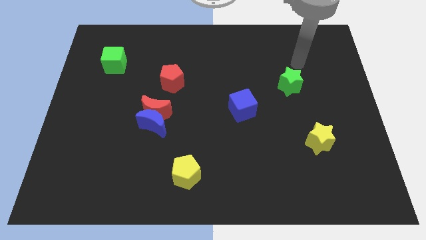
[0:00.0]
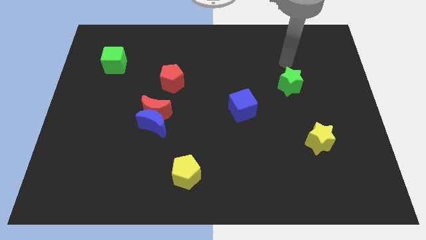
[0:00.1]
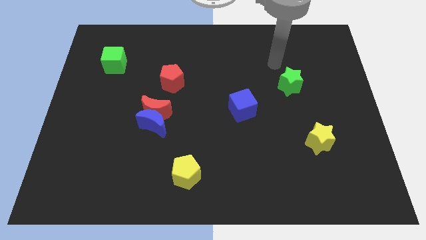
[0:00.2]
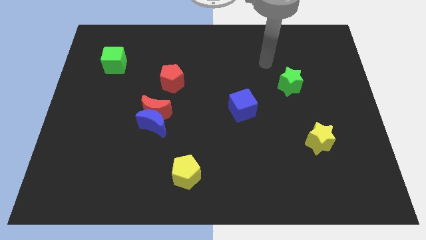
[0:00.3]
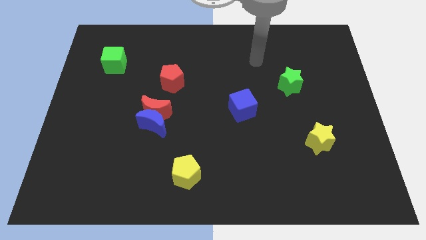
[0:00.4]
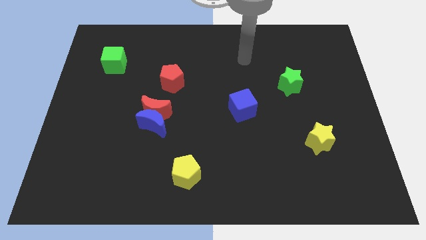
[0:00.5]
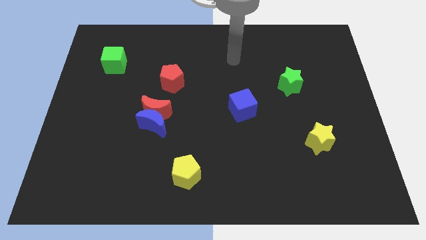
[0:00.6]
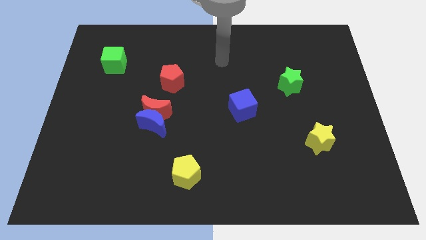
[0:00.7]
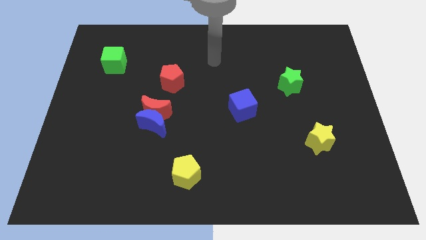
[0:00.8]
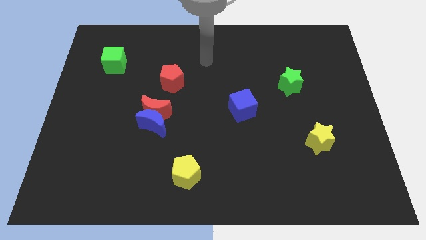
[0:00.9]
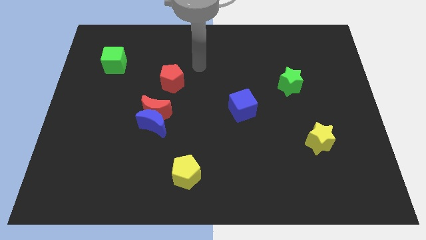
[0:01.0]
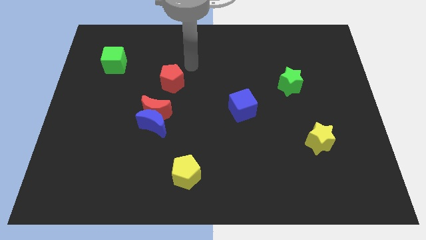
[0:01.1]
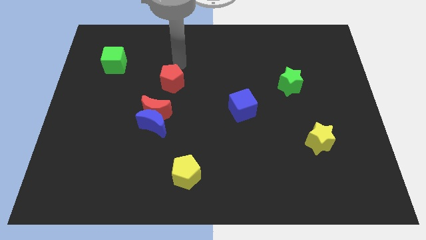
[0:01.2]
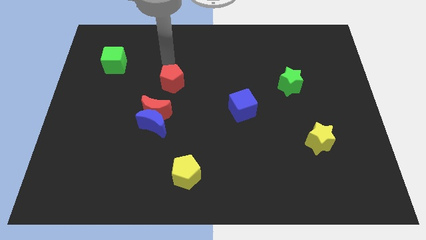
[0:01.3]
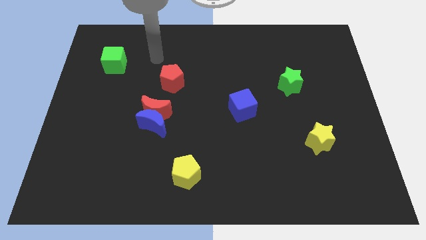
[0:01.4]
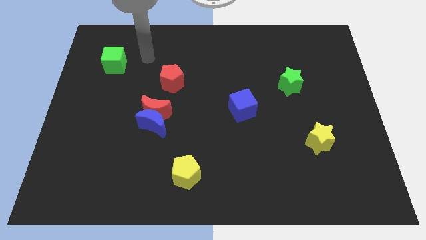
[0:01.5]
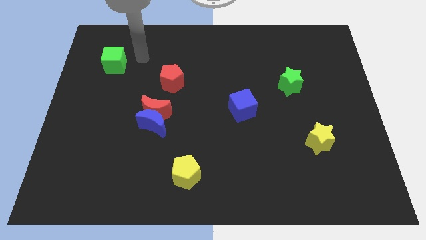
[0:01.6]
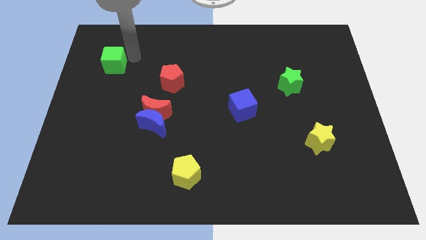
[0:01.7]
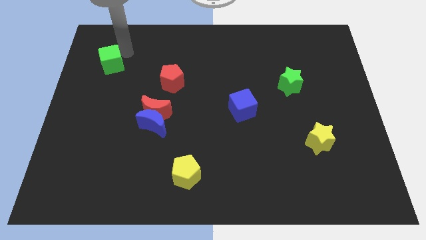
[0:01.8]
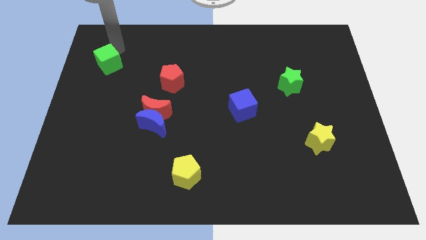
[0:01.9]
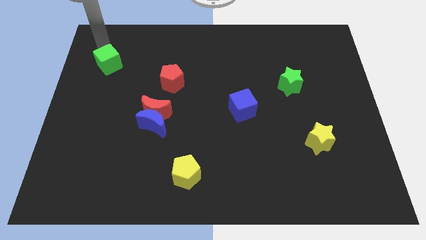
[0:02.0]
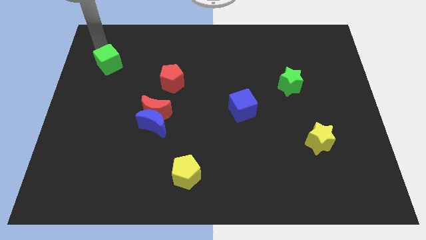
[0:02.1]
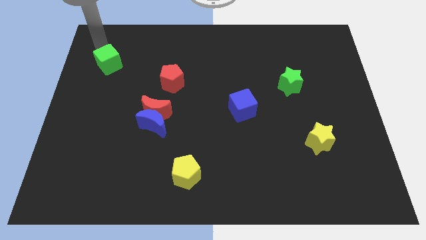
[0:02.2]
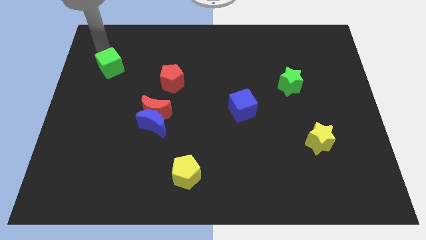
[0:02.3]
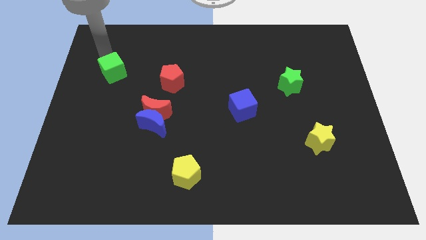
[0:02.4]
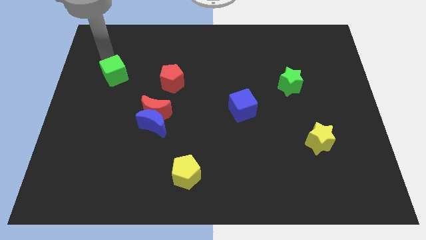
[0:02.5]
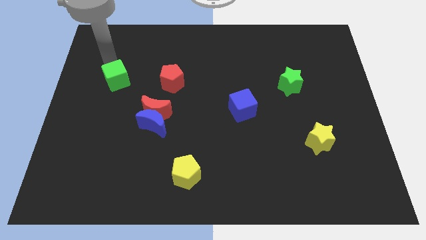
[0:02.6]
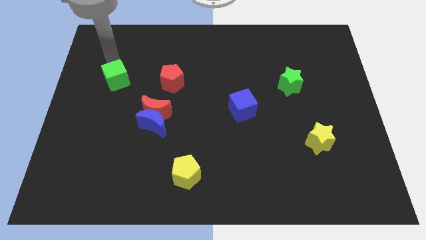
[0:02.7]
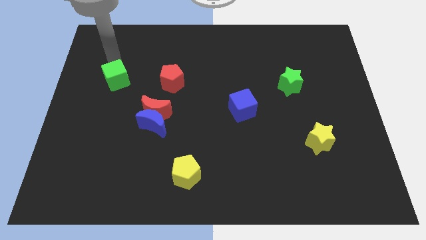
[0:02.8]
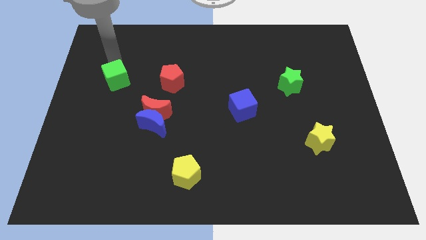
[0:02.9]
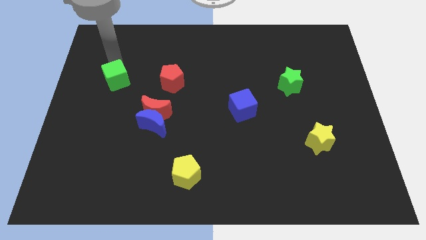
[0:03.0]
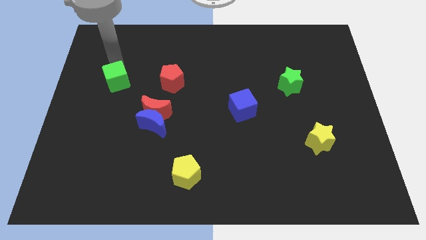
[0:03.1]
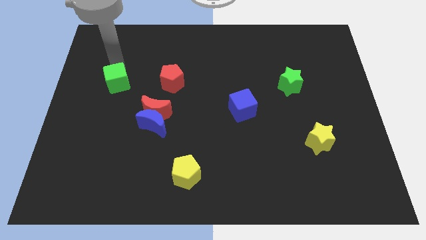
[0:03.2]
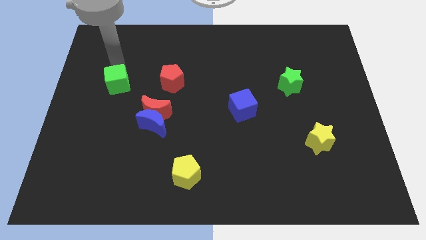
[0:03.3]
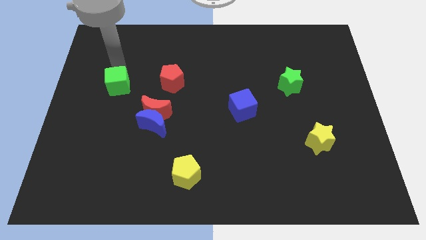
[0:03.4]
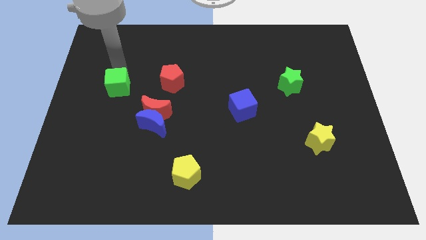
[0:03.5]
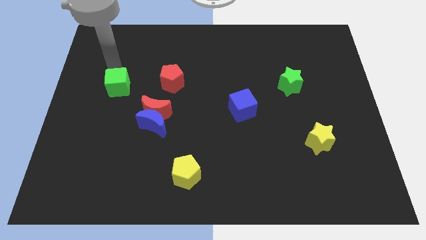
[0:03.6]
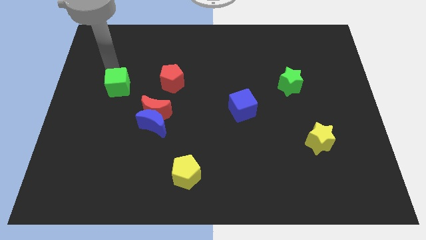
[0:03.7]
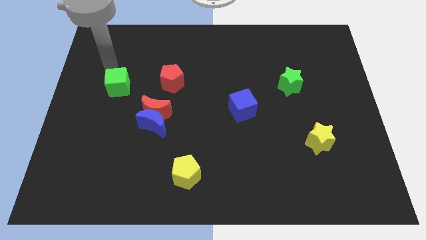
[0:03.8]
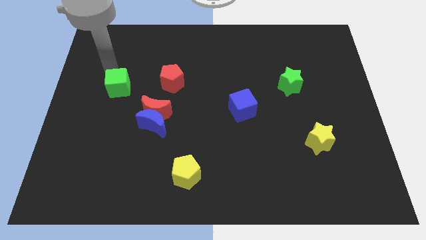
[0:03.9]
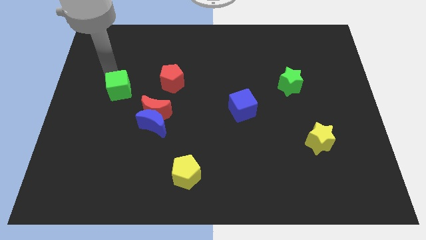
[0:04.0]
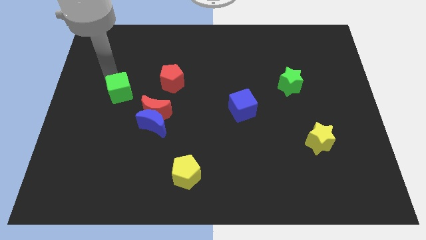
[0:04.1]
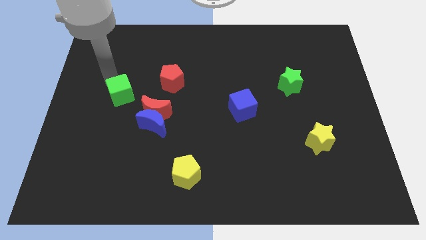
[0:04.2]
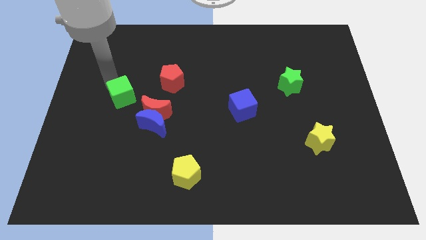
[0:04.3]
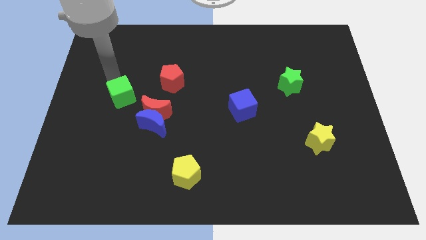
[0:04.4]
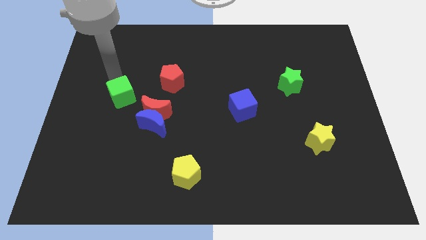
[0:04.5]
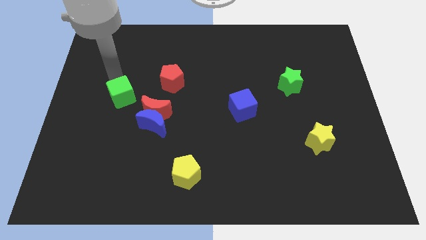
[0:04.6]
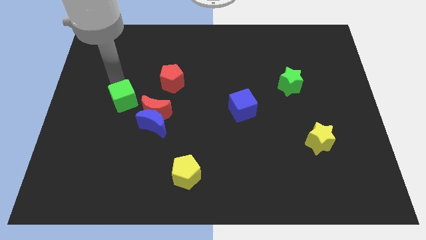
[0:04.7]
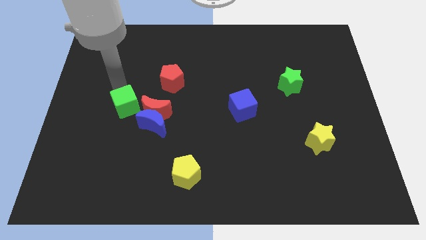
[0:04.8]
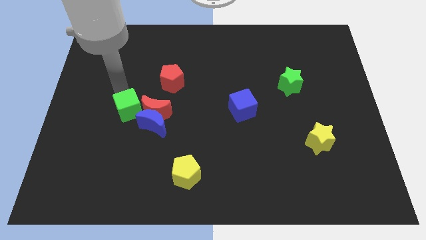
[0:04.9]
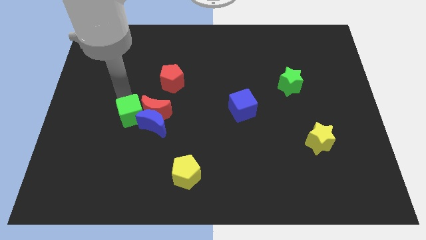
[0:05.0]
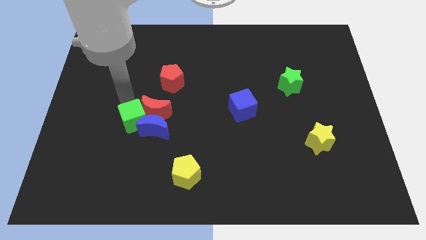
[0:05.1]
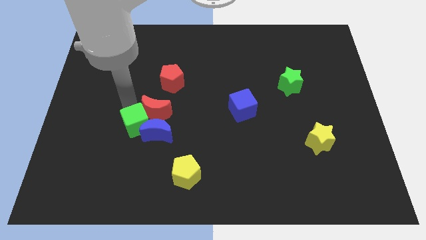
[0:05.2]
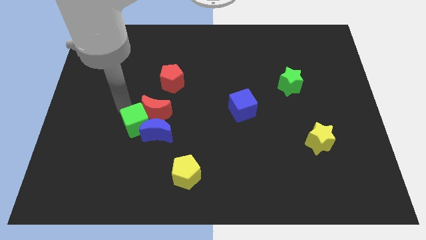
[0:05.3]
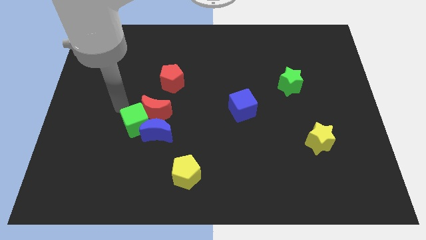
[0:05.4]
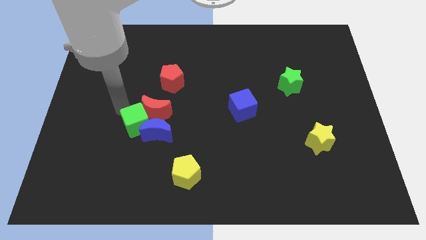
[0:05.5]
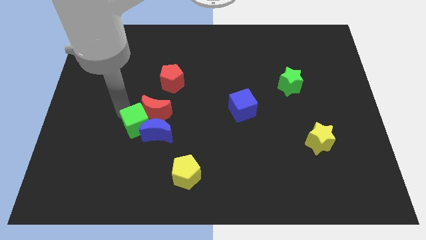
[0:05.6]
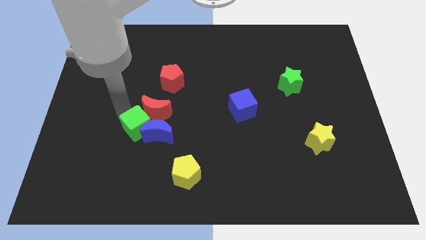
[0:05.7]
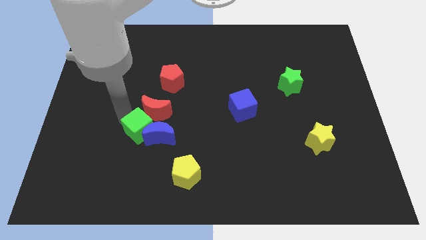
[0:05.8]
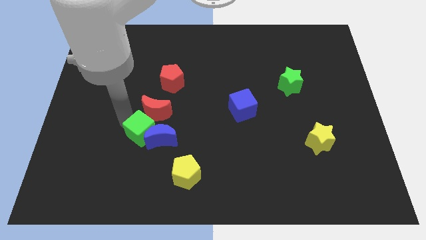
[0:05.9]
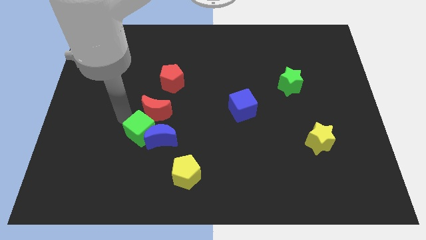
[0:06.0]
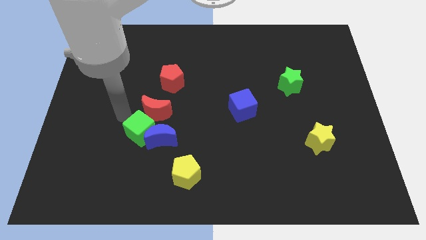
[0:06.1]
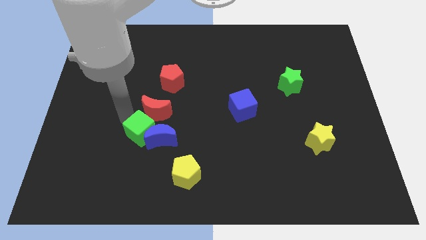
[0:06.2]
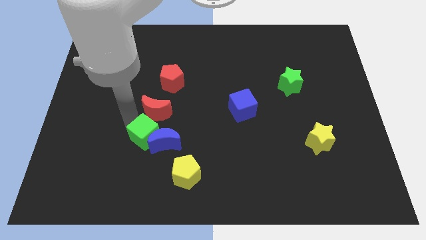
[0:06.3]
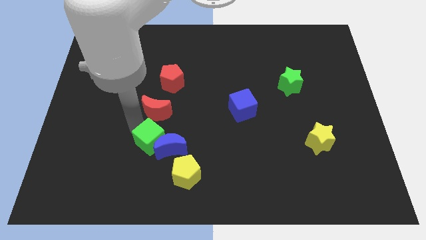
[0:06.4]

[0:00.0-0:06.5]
push the green cube to the top left side of the yellow pentagon
